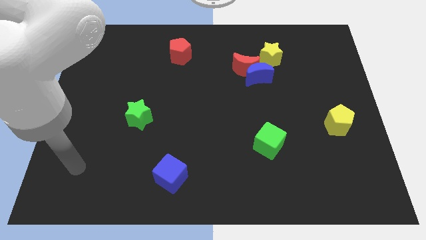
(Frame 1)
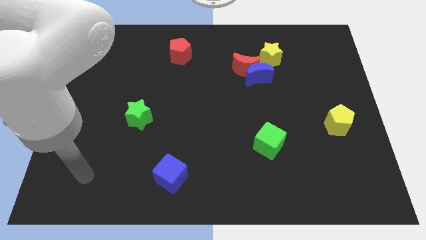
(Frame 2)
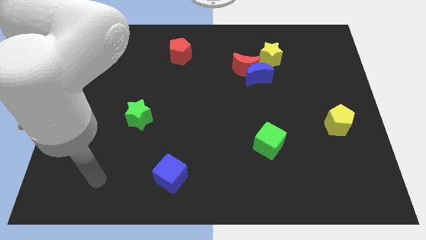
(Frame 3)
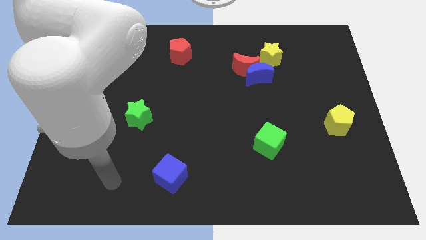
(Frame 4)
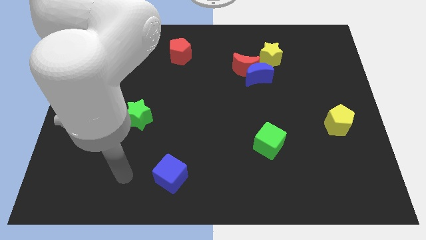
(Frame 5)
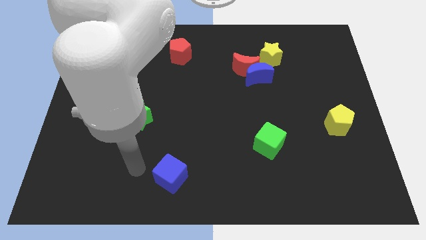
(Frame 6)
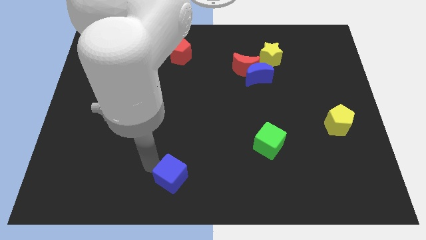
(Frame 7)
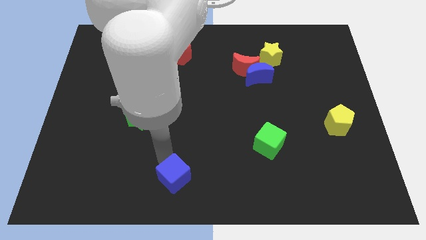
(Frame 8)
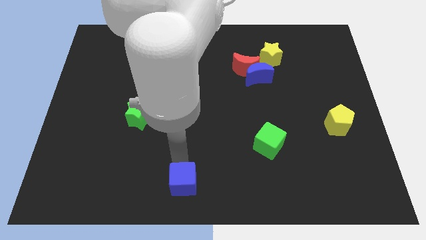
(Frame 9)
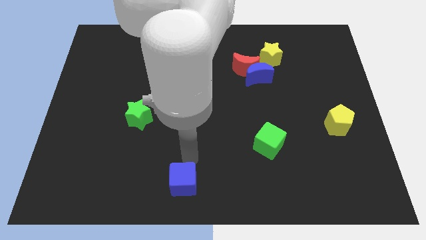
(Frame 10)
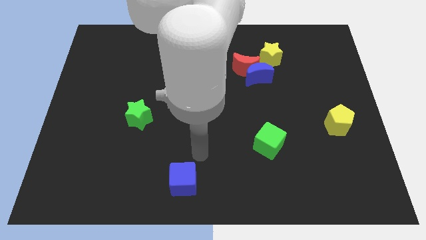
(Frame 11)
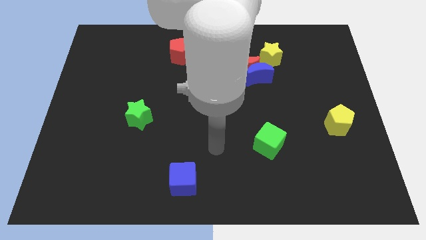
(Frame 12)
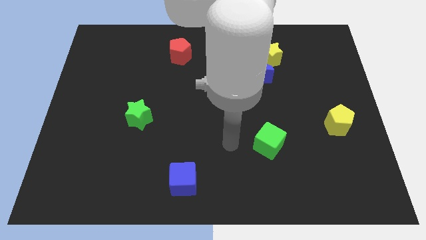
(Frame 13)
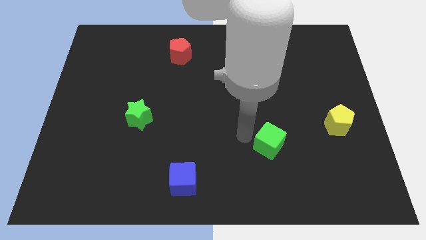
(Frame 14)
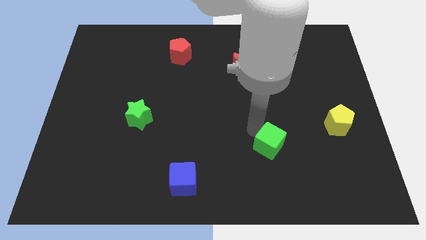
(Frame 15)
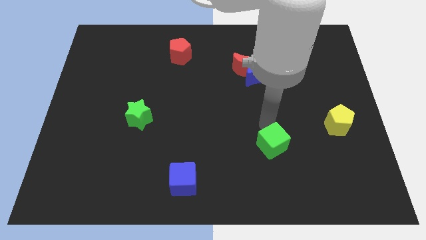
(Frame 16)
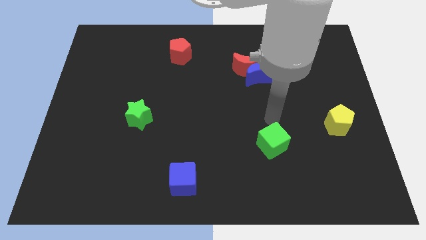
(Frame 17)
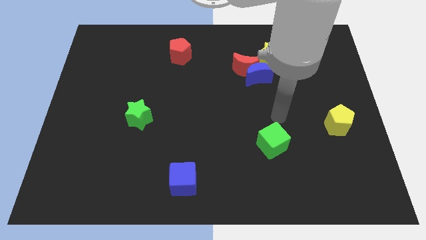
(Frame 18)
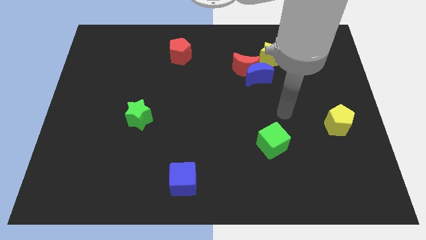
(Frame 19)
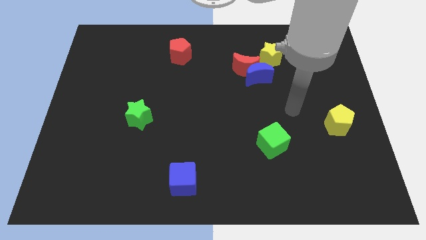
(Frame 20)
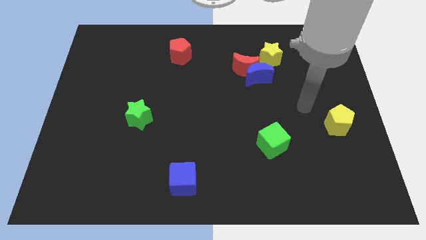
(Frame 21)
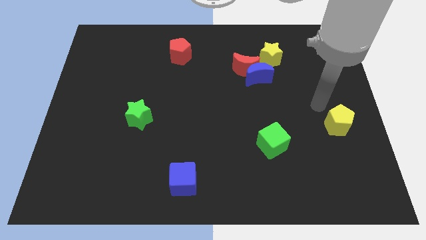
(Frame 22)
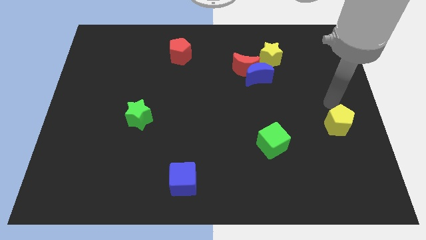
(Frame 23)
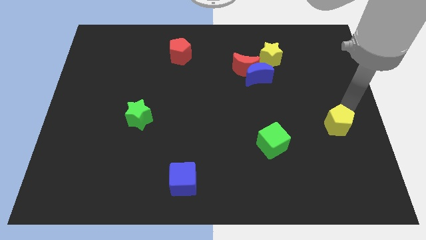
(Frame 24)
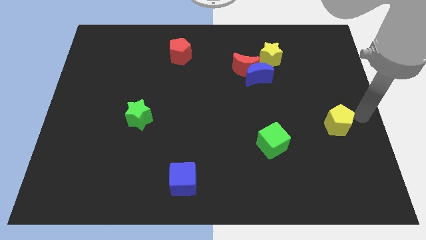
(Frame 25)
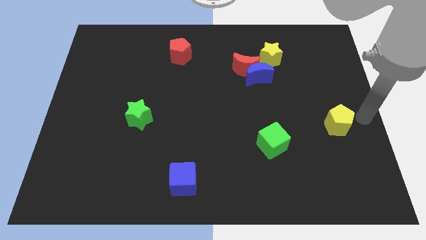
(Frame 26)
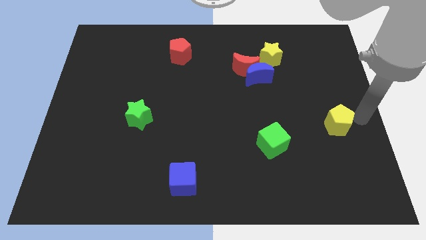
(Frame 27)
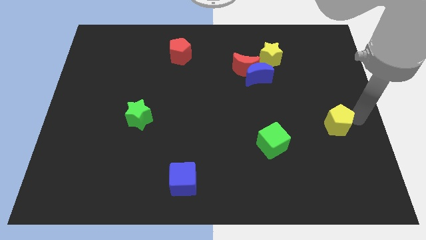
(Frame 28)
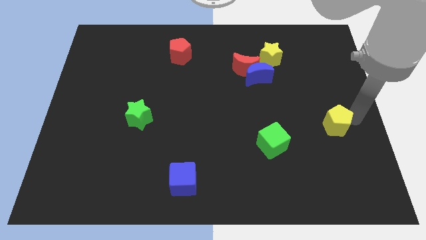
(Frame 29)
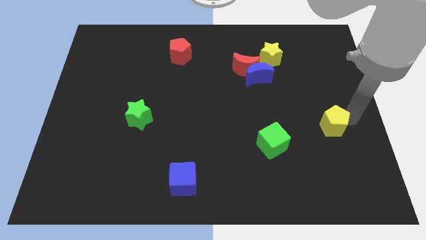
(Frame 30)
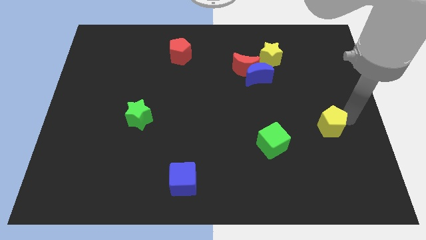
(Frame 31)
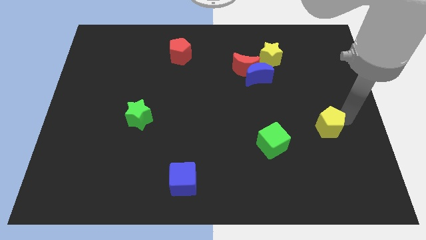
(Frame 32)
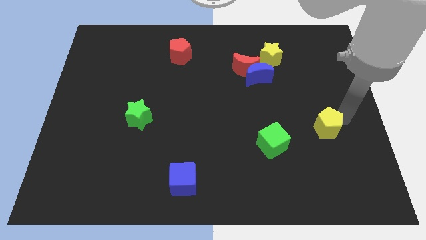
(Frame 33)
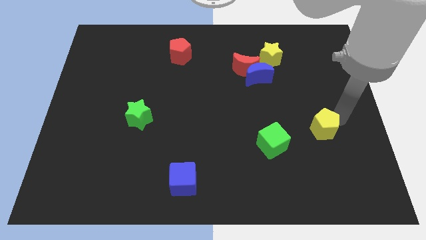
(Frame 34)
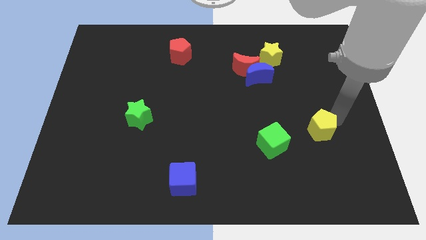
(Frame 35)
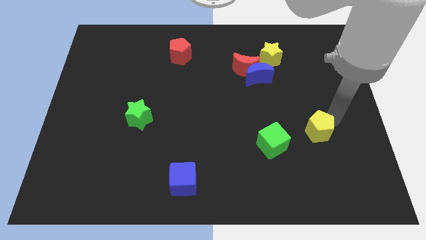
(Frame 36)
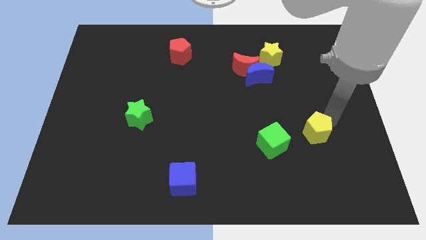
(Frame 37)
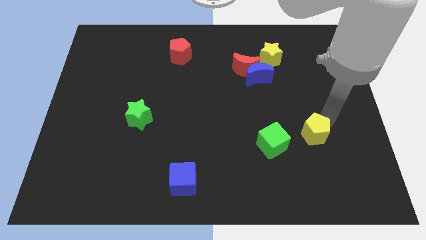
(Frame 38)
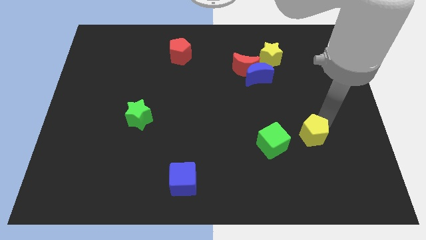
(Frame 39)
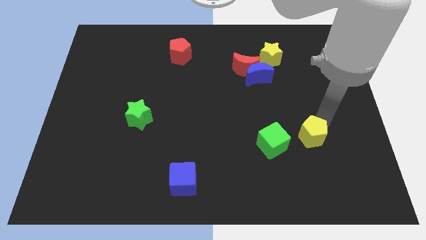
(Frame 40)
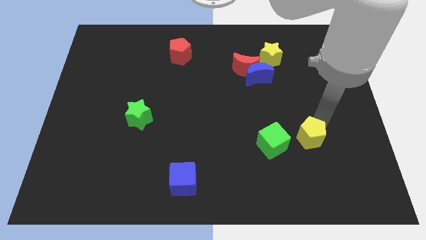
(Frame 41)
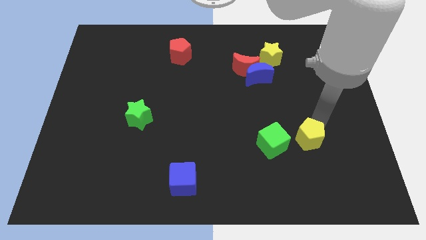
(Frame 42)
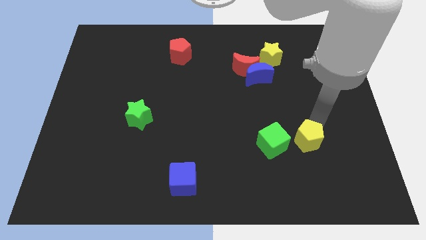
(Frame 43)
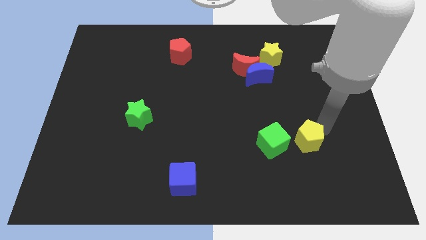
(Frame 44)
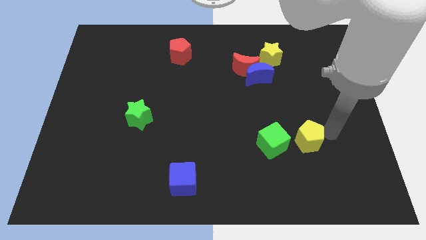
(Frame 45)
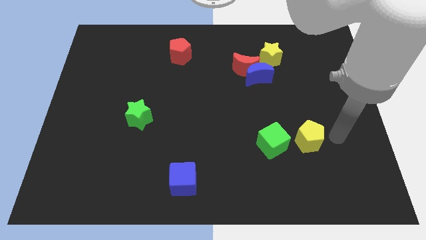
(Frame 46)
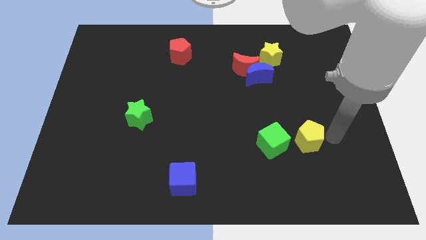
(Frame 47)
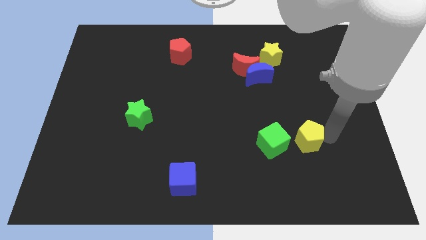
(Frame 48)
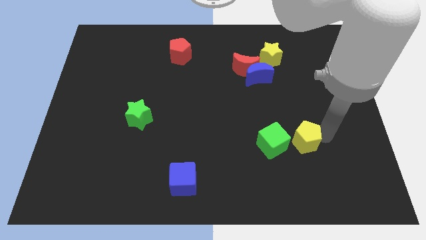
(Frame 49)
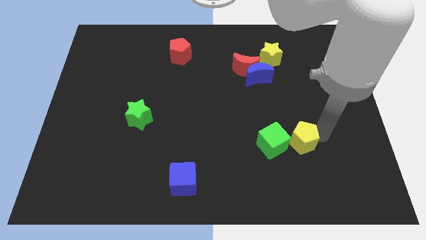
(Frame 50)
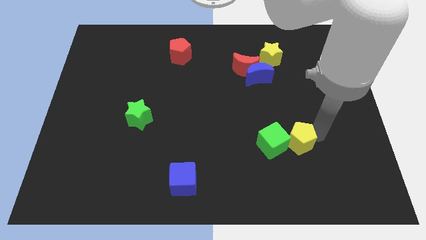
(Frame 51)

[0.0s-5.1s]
move the yellow pentagon next to the green cube

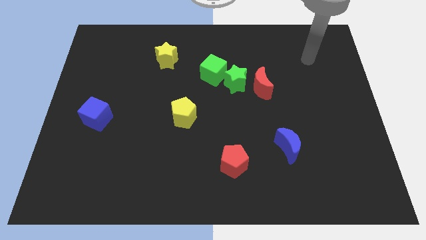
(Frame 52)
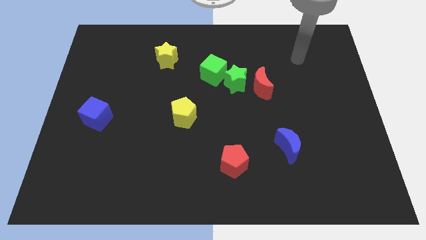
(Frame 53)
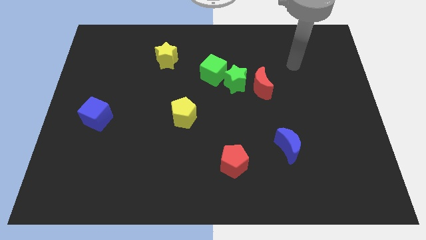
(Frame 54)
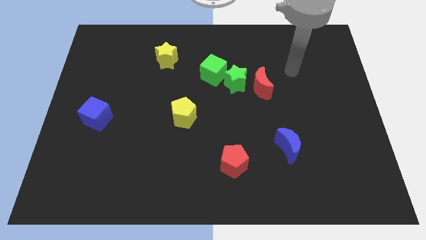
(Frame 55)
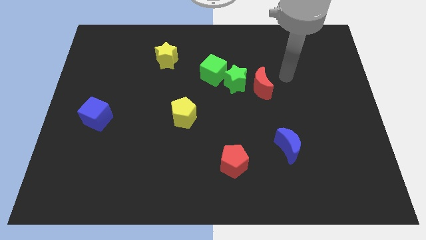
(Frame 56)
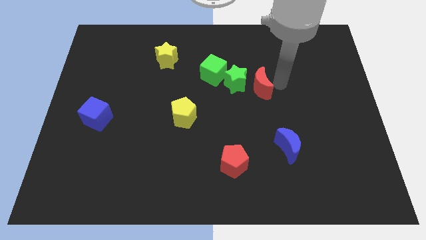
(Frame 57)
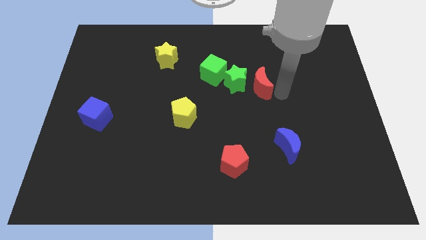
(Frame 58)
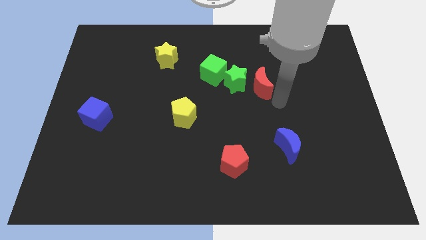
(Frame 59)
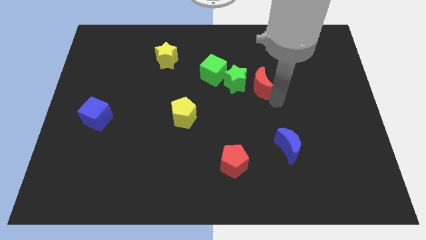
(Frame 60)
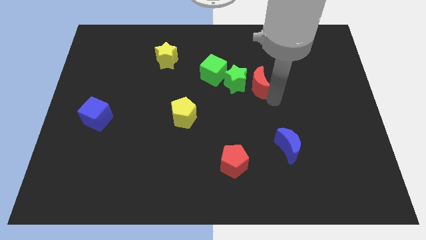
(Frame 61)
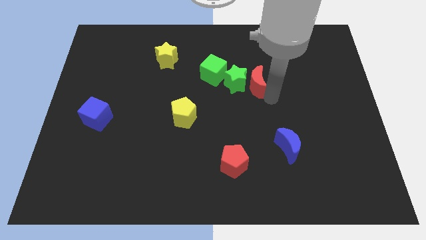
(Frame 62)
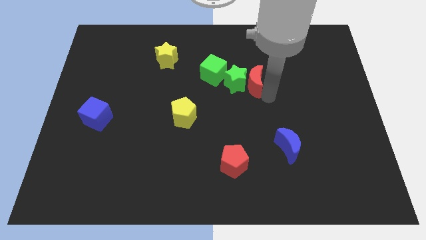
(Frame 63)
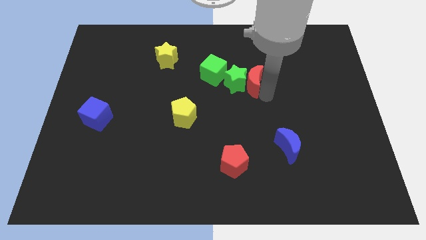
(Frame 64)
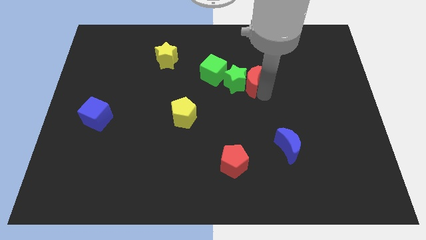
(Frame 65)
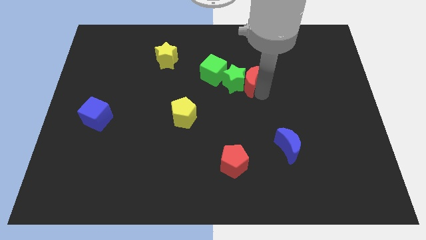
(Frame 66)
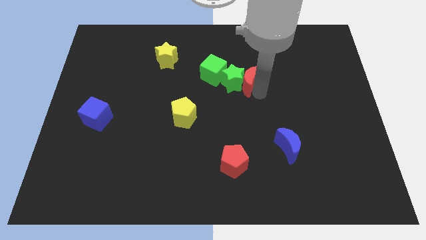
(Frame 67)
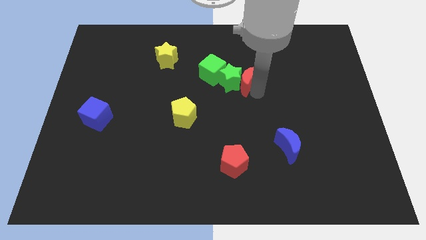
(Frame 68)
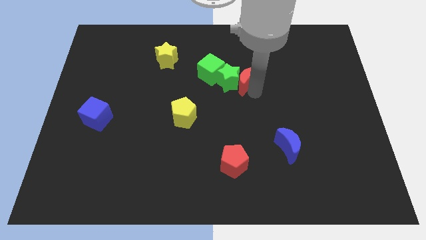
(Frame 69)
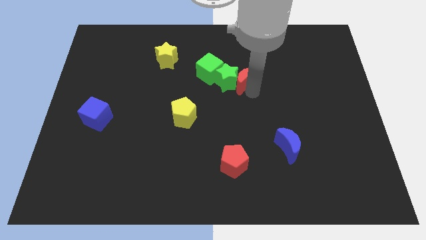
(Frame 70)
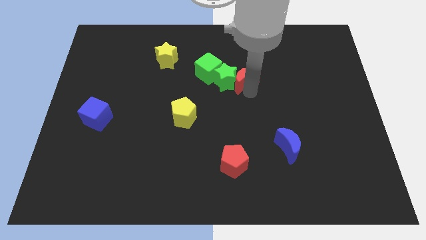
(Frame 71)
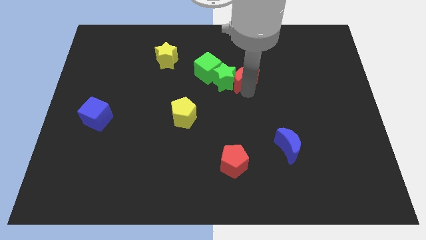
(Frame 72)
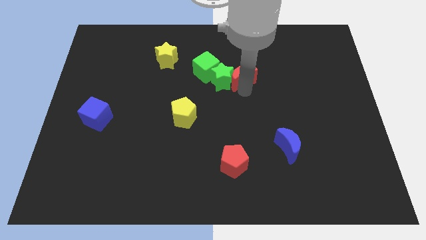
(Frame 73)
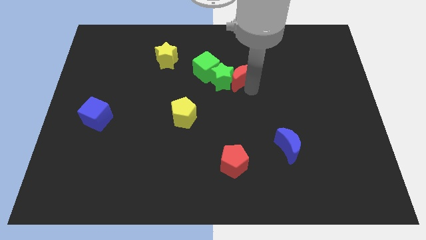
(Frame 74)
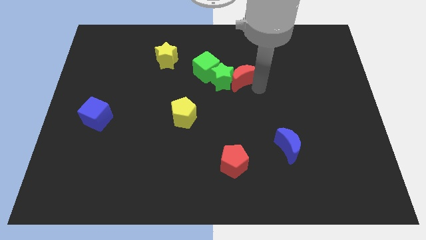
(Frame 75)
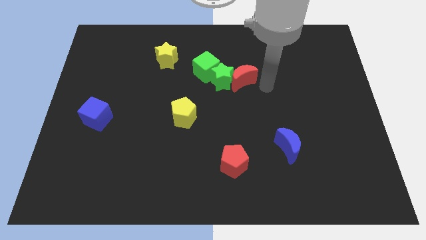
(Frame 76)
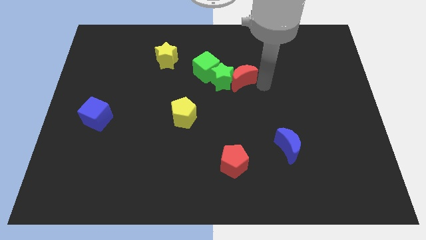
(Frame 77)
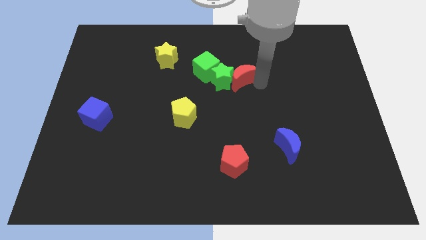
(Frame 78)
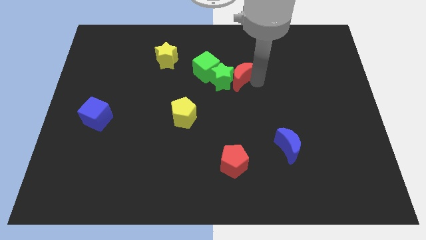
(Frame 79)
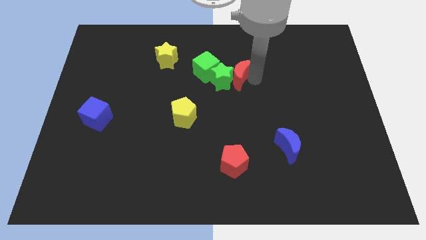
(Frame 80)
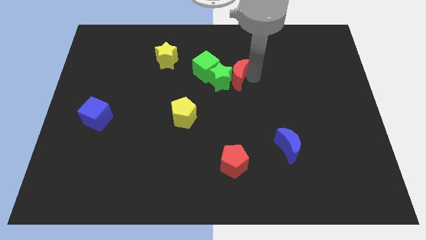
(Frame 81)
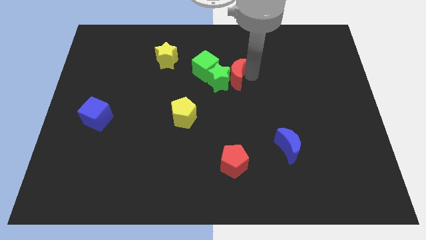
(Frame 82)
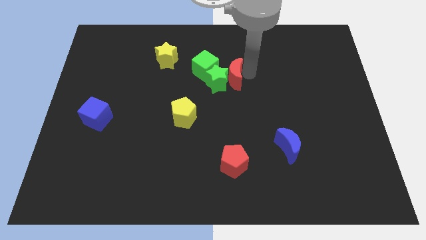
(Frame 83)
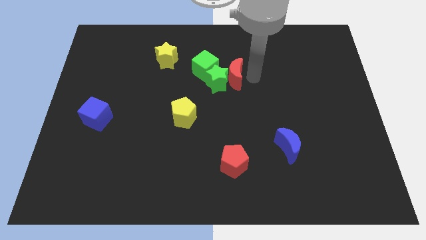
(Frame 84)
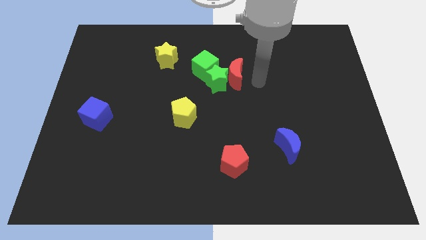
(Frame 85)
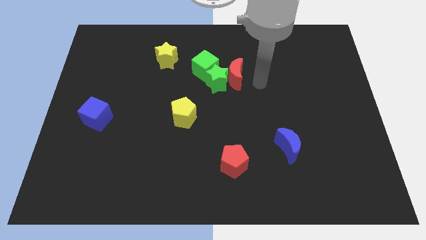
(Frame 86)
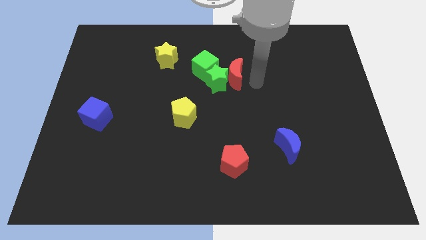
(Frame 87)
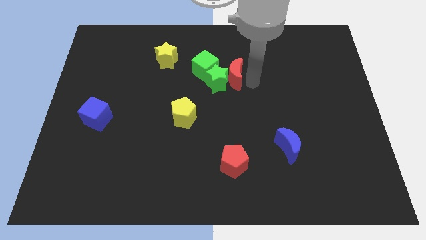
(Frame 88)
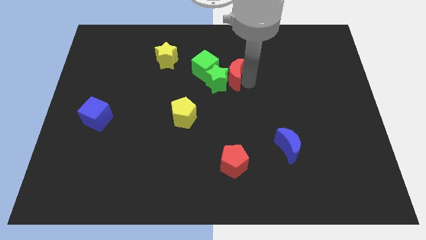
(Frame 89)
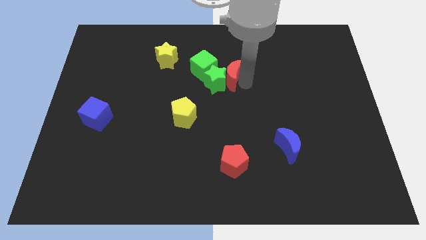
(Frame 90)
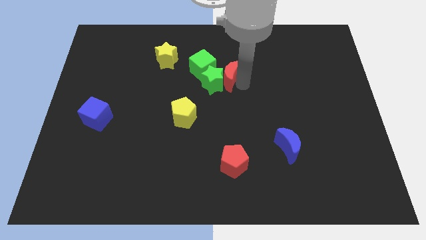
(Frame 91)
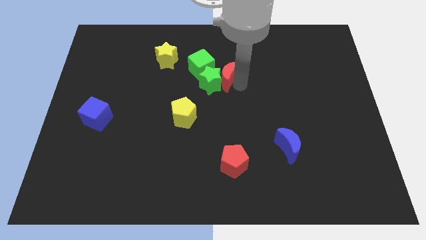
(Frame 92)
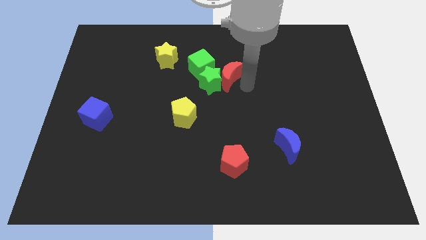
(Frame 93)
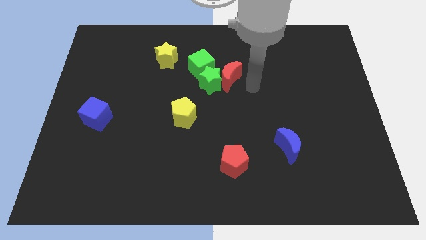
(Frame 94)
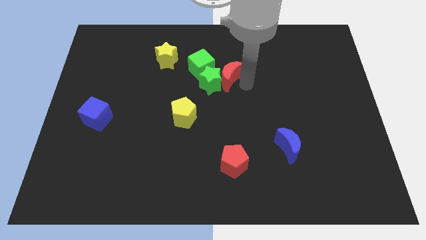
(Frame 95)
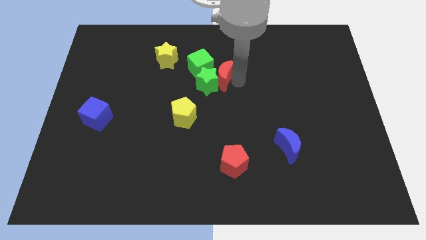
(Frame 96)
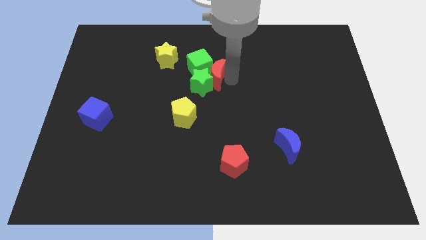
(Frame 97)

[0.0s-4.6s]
put the red moon to the green cube
